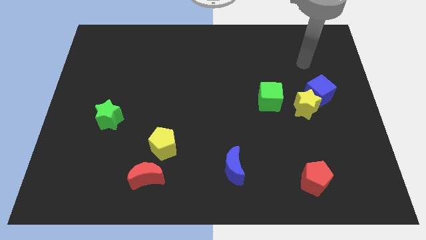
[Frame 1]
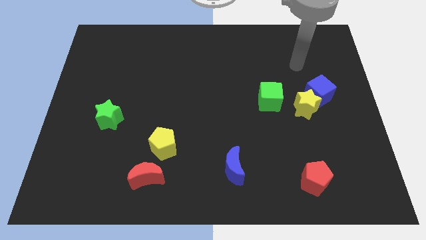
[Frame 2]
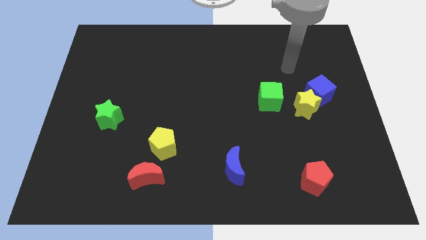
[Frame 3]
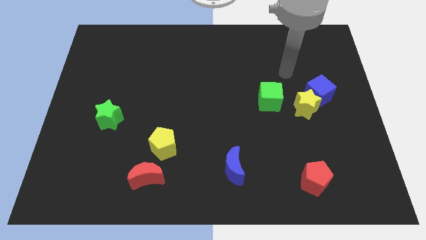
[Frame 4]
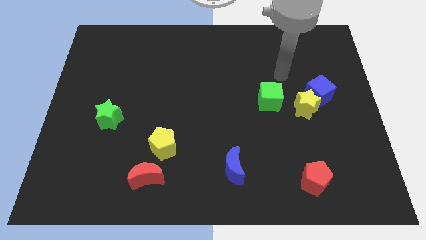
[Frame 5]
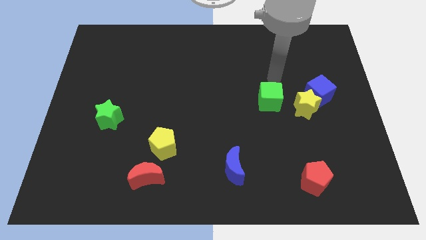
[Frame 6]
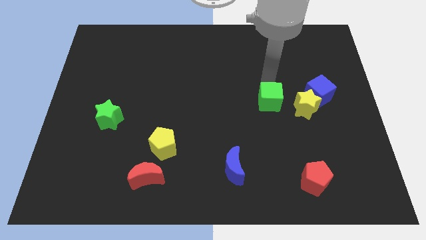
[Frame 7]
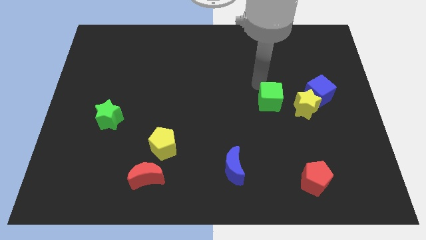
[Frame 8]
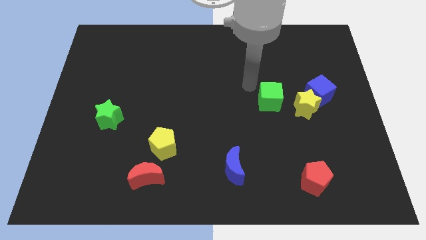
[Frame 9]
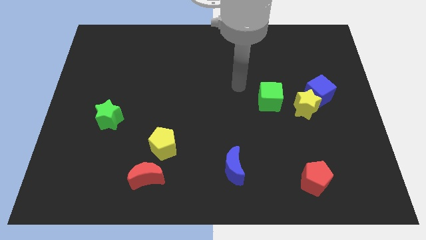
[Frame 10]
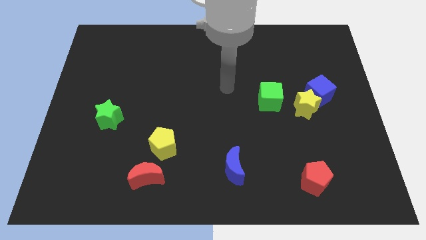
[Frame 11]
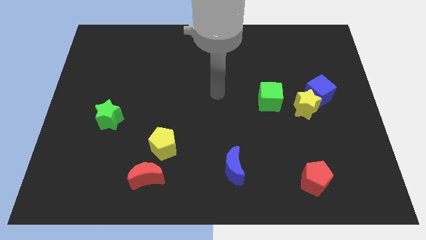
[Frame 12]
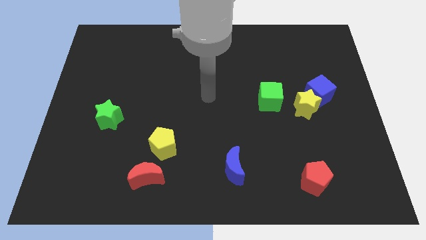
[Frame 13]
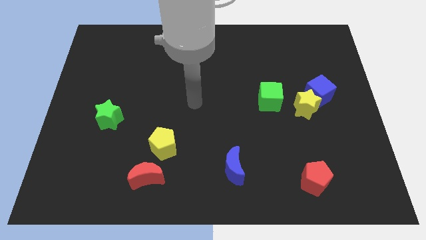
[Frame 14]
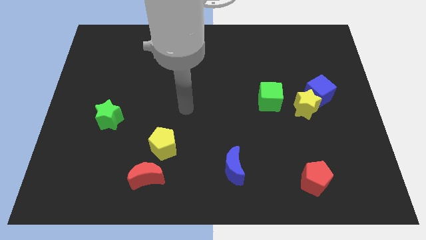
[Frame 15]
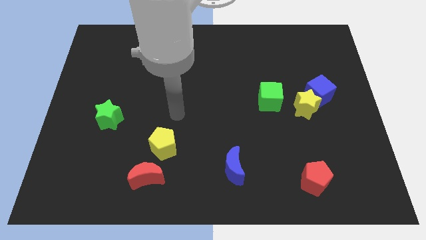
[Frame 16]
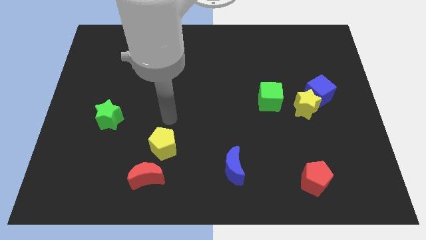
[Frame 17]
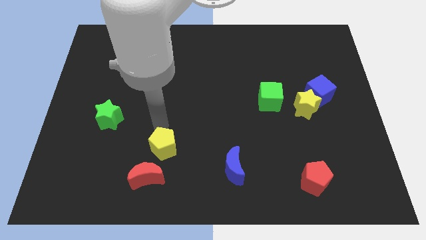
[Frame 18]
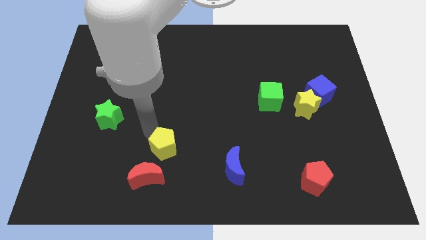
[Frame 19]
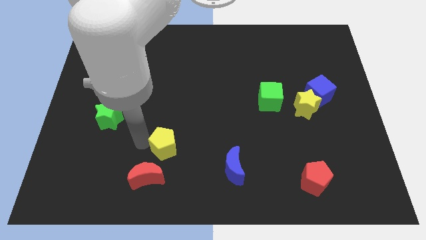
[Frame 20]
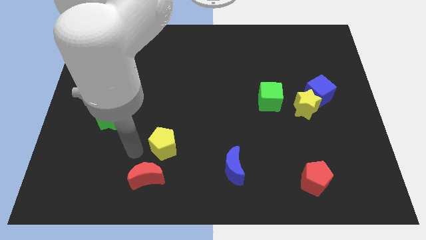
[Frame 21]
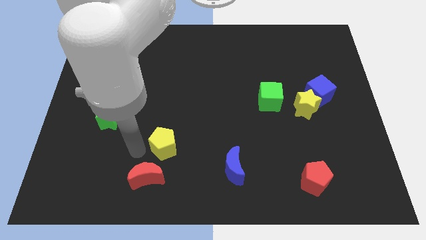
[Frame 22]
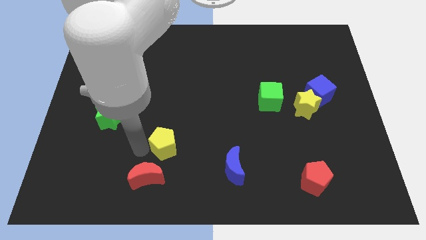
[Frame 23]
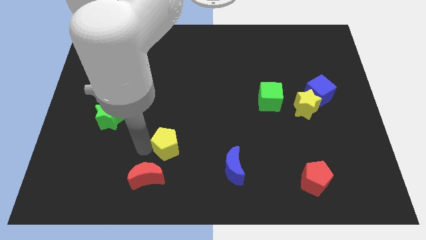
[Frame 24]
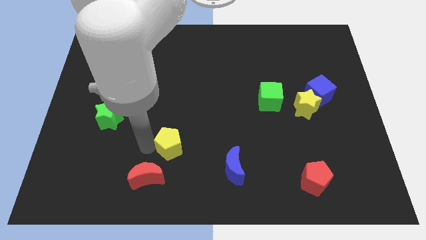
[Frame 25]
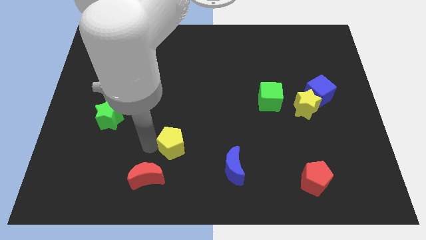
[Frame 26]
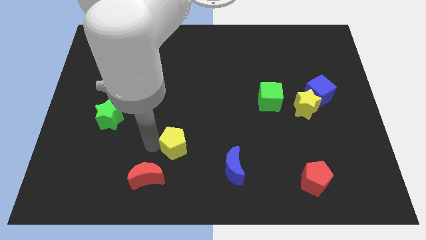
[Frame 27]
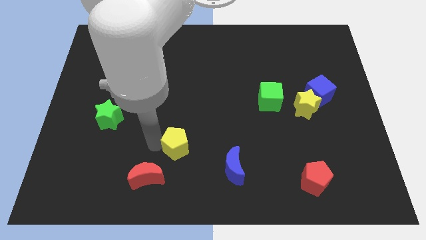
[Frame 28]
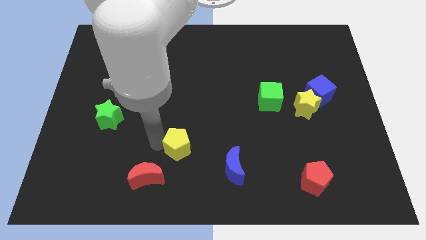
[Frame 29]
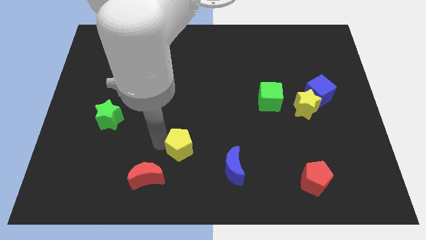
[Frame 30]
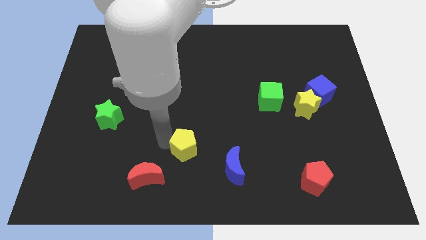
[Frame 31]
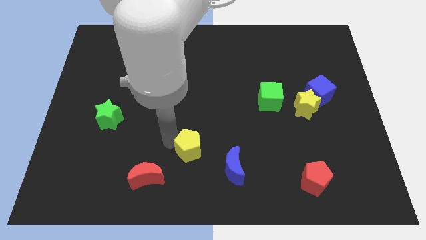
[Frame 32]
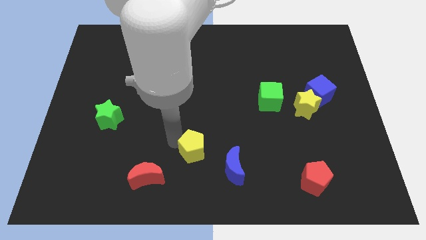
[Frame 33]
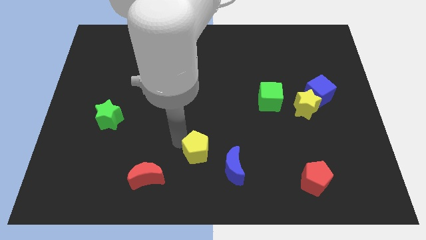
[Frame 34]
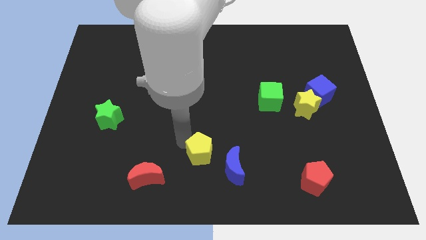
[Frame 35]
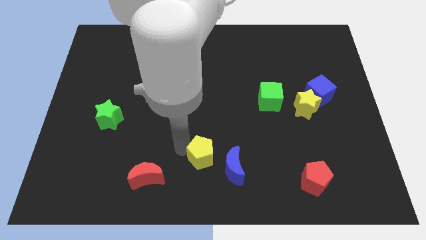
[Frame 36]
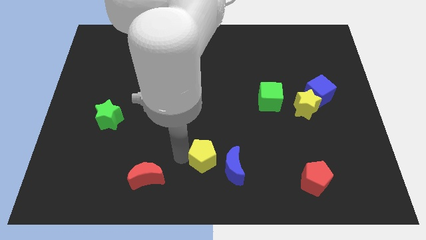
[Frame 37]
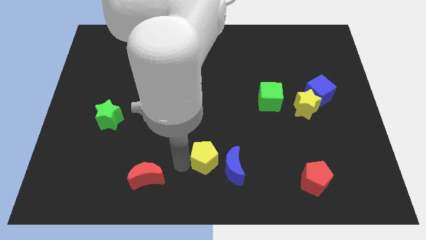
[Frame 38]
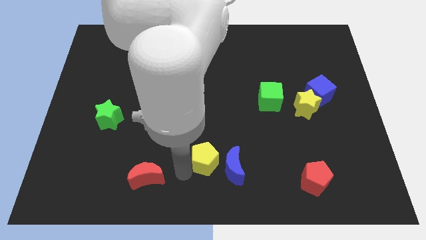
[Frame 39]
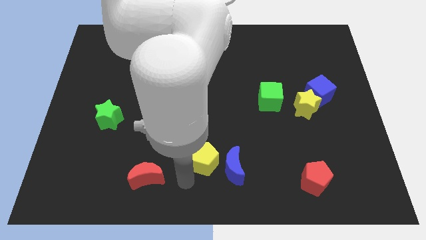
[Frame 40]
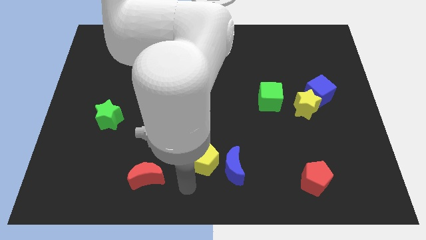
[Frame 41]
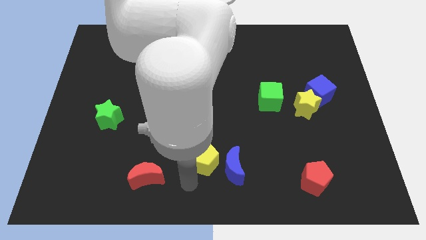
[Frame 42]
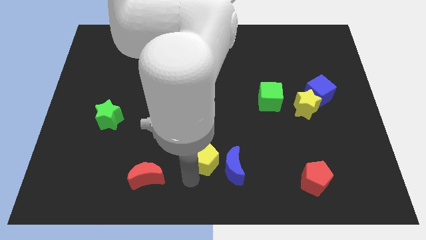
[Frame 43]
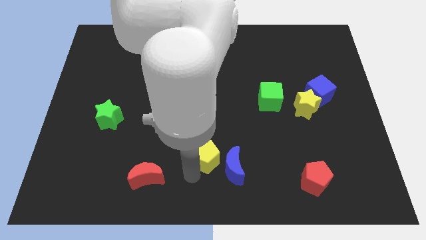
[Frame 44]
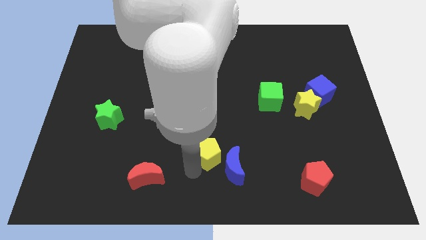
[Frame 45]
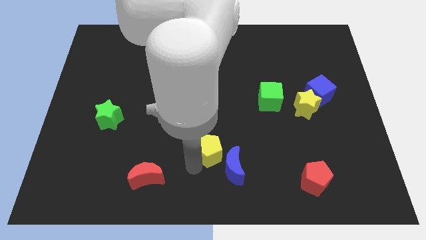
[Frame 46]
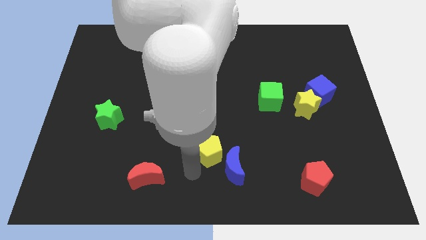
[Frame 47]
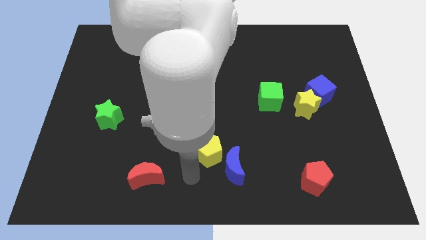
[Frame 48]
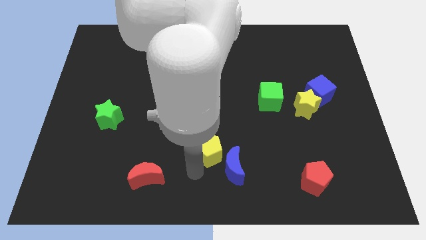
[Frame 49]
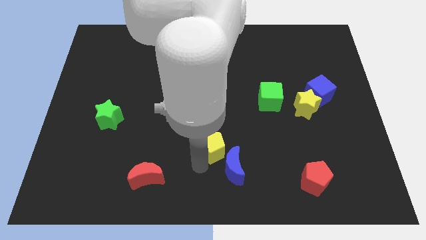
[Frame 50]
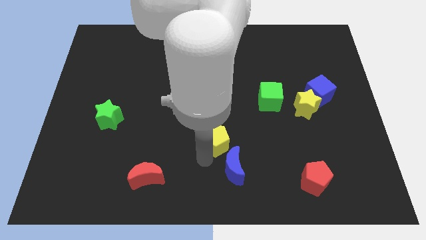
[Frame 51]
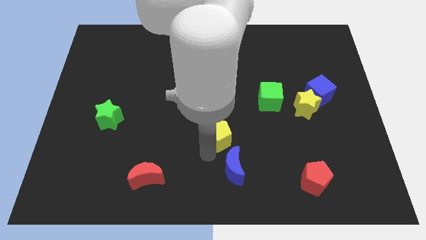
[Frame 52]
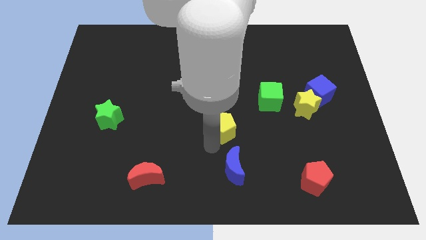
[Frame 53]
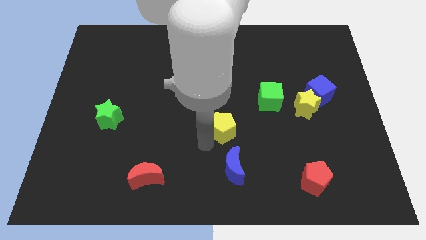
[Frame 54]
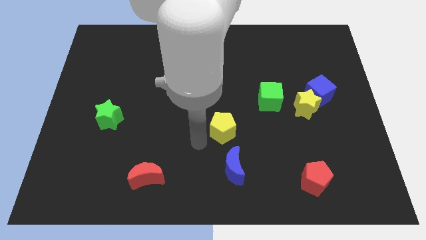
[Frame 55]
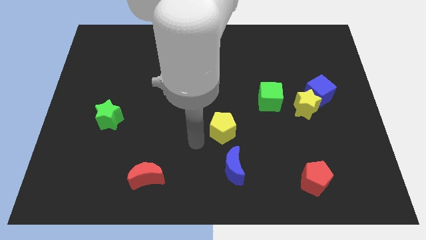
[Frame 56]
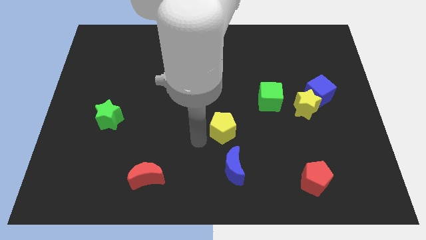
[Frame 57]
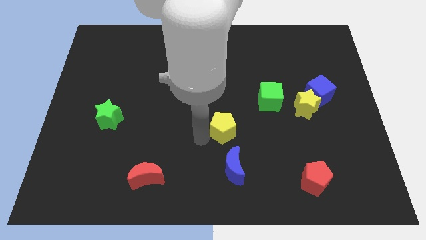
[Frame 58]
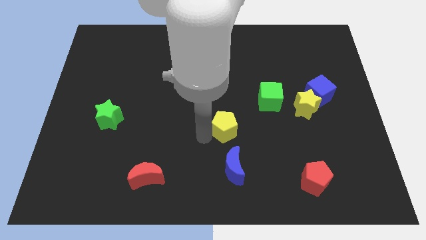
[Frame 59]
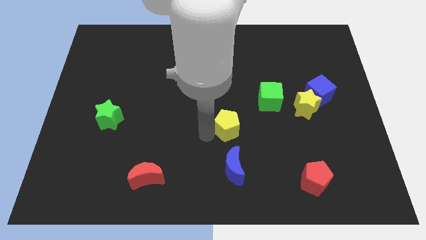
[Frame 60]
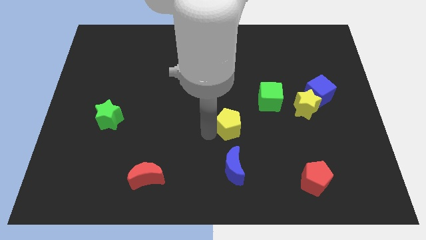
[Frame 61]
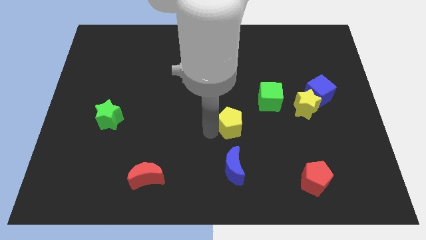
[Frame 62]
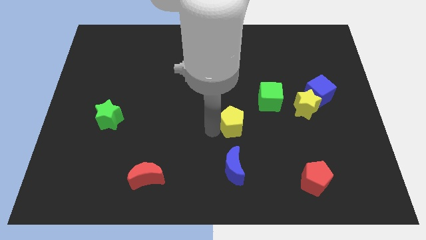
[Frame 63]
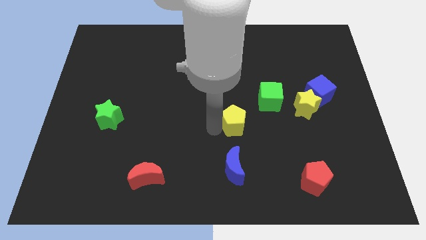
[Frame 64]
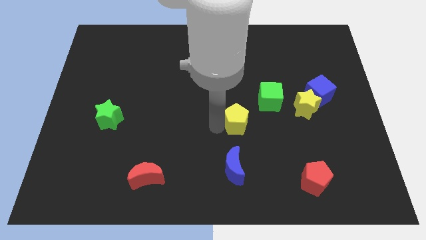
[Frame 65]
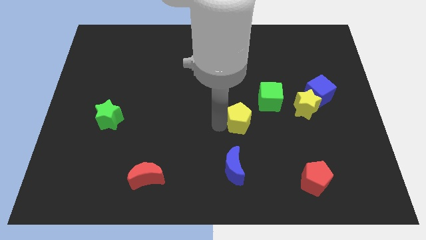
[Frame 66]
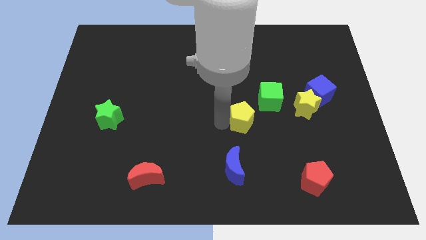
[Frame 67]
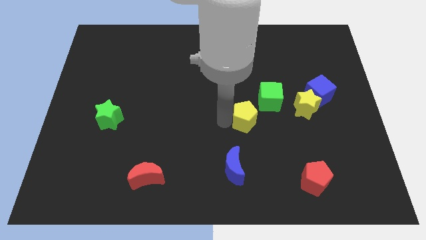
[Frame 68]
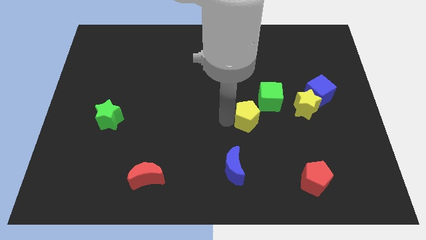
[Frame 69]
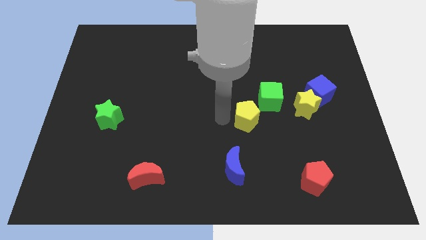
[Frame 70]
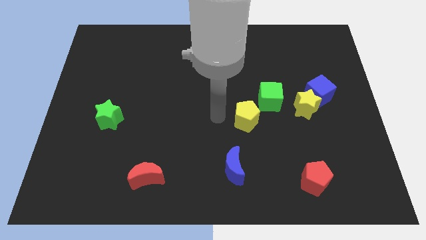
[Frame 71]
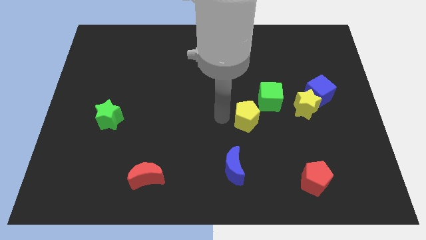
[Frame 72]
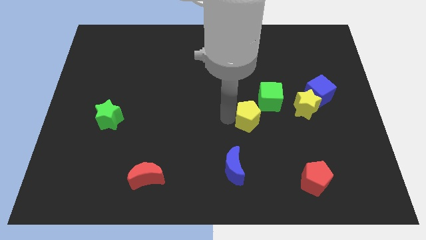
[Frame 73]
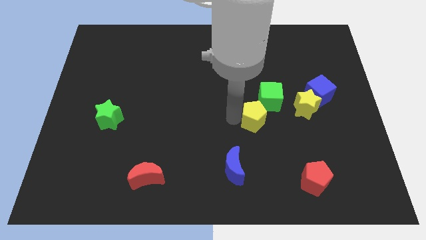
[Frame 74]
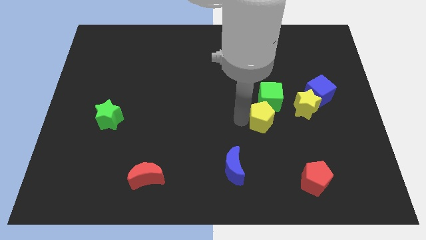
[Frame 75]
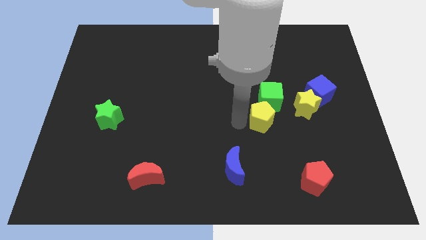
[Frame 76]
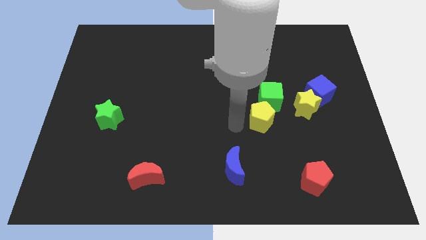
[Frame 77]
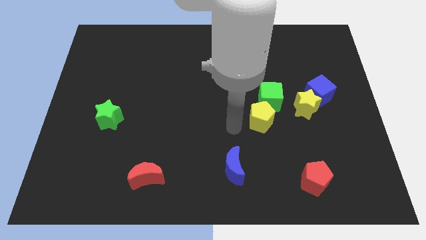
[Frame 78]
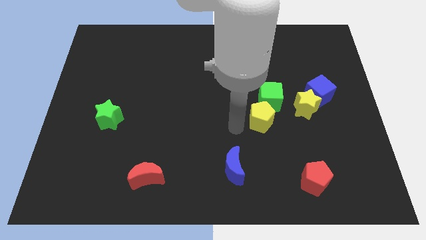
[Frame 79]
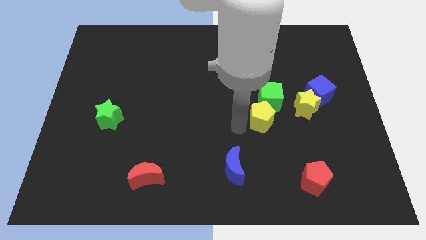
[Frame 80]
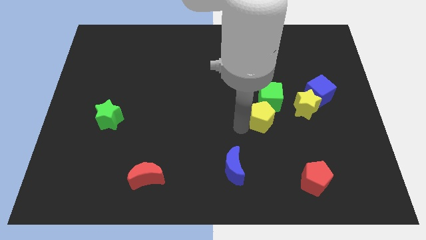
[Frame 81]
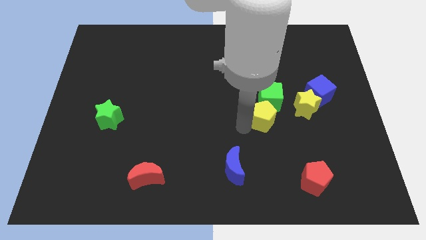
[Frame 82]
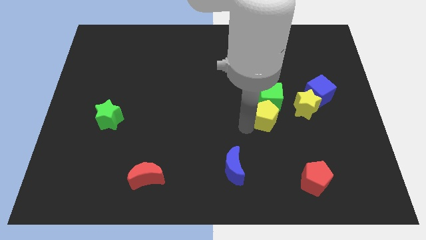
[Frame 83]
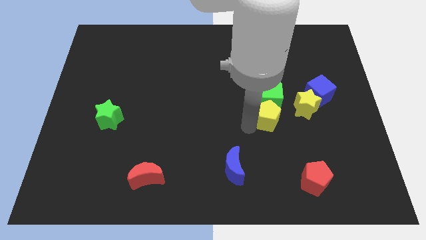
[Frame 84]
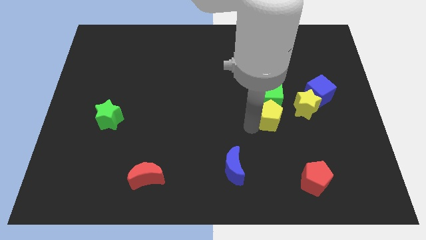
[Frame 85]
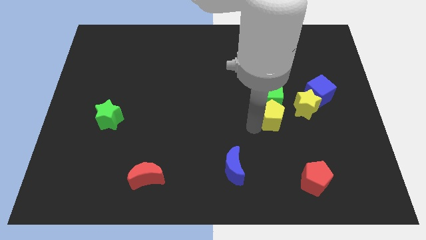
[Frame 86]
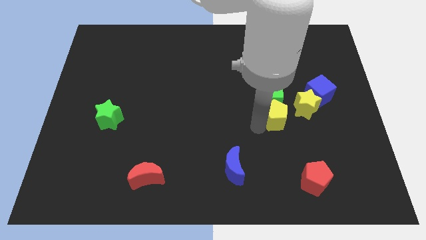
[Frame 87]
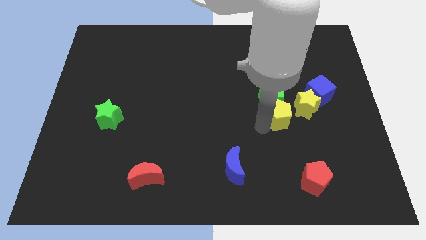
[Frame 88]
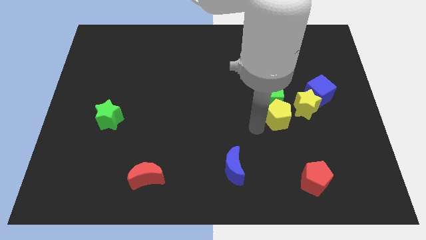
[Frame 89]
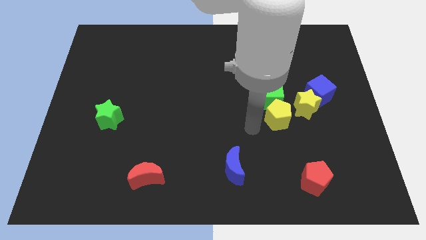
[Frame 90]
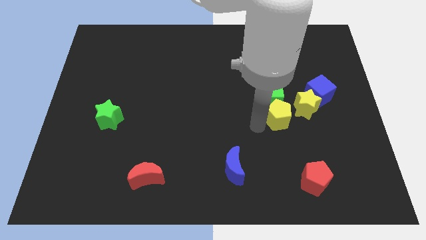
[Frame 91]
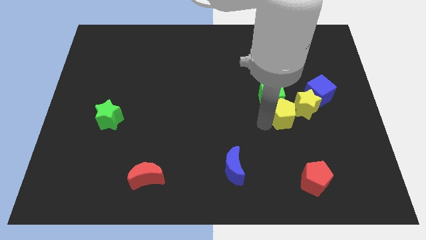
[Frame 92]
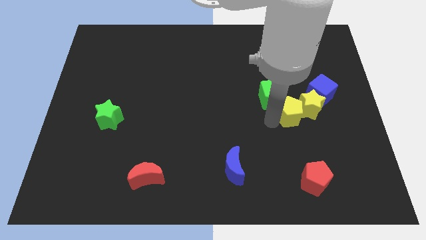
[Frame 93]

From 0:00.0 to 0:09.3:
push the yellow pentagon to the yellow star
